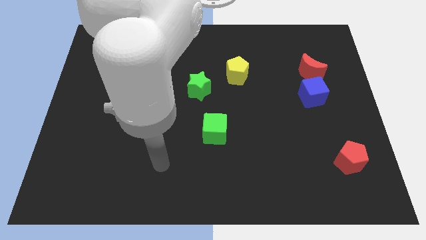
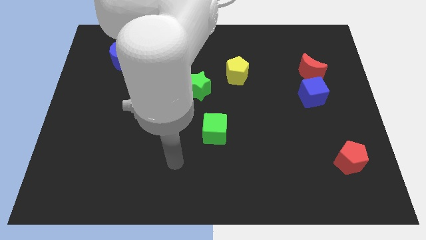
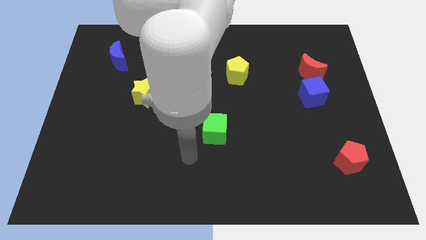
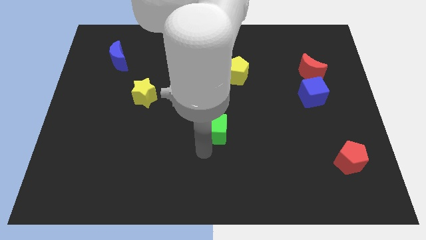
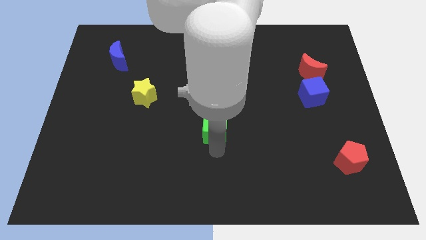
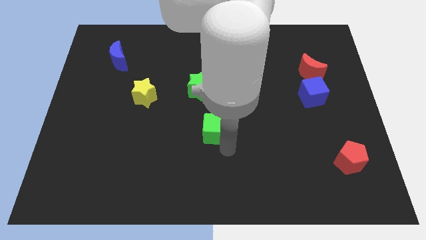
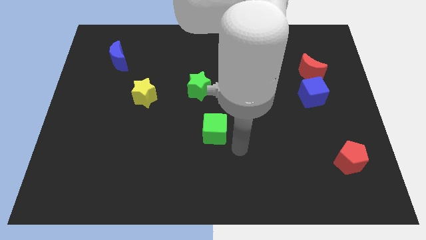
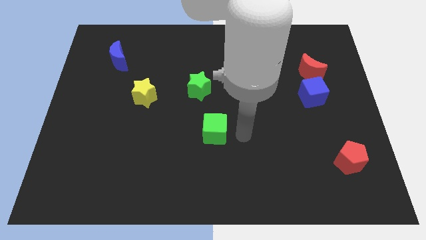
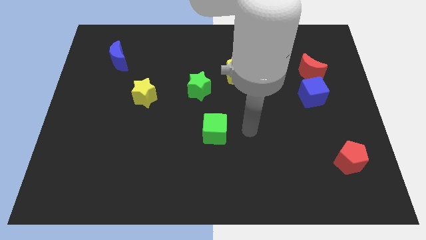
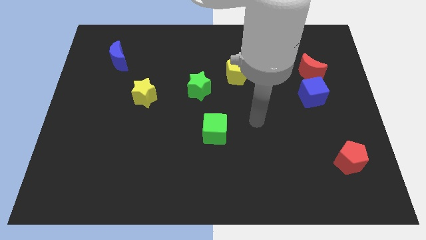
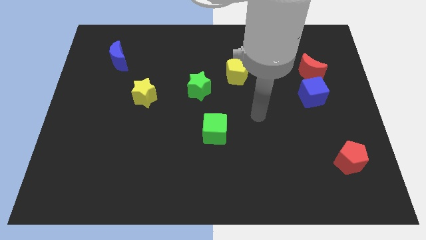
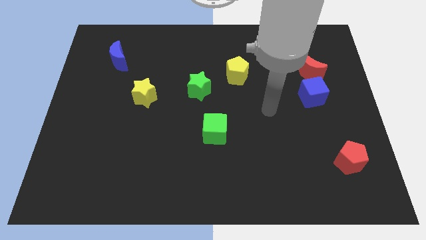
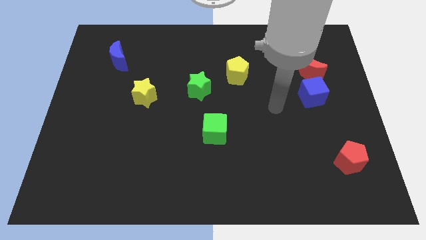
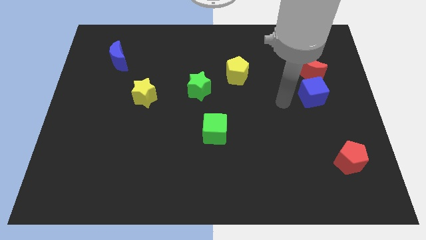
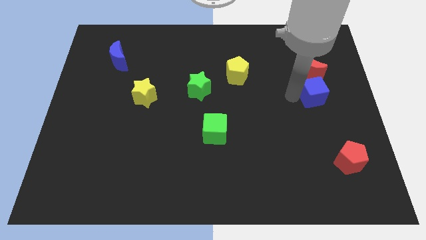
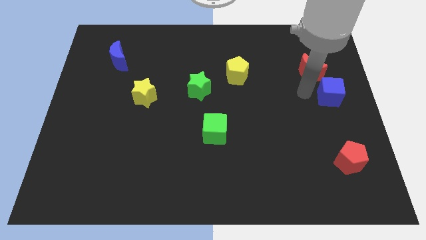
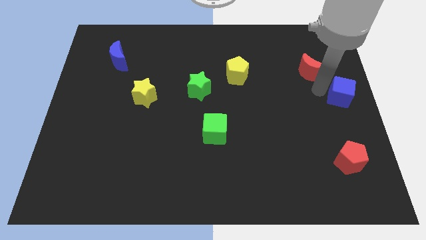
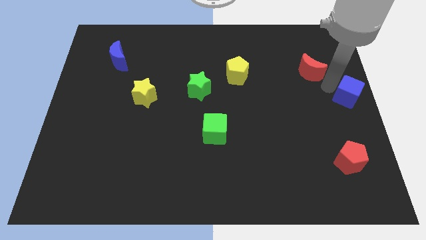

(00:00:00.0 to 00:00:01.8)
move the red moon away from the blue cube

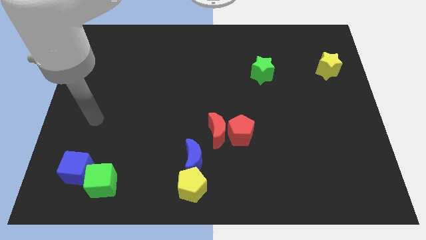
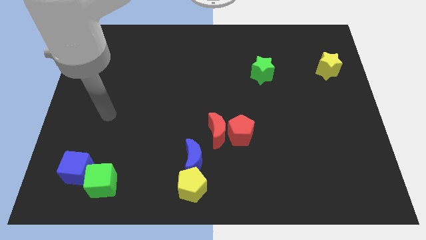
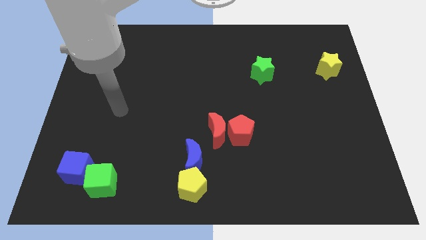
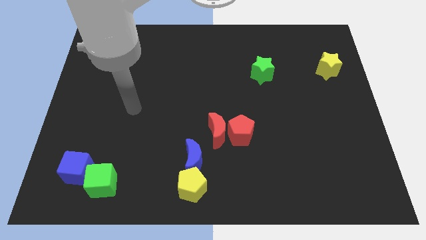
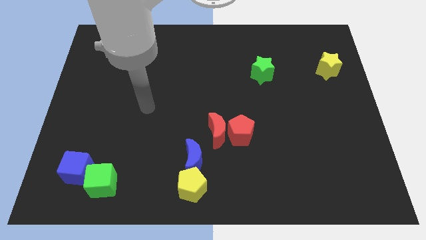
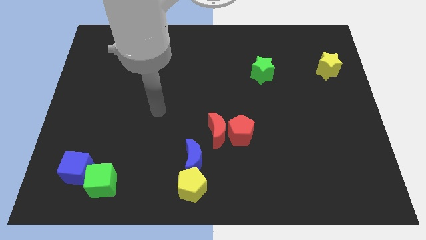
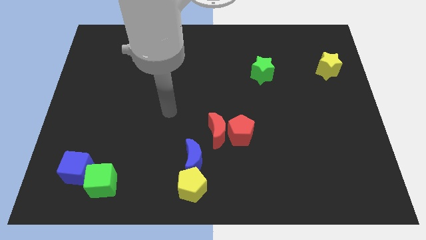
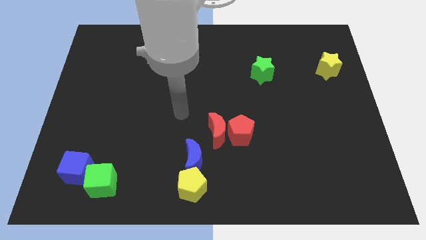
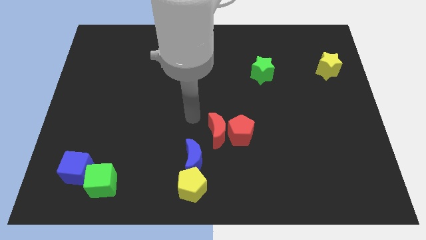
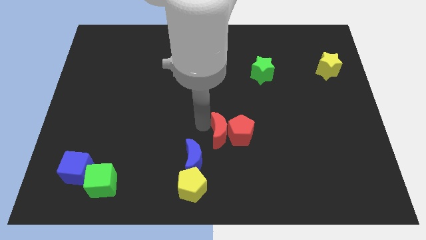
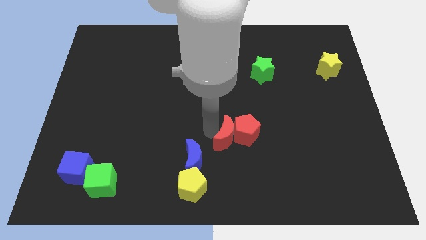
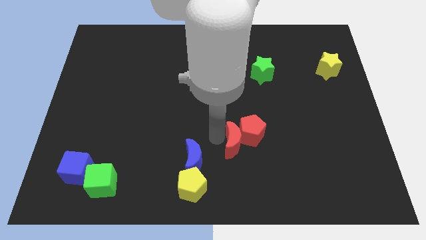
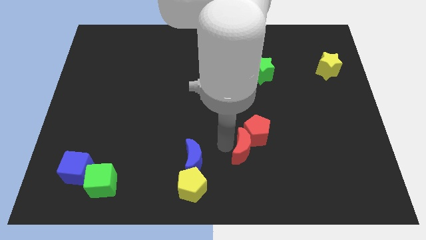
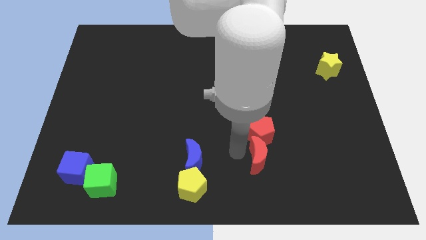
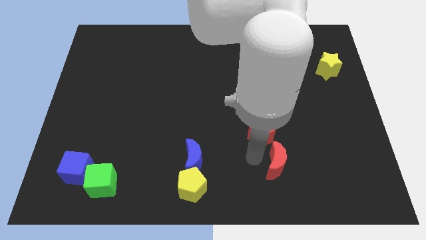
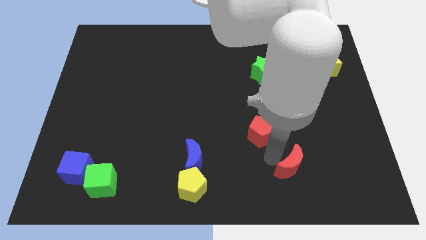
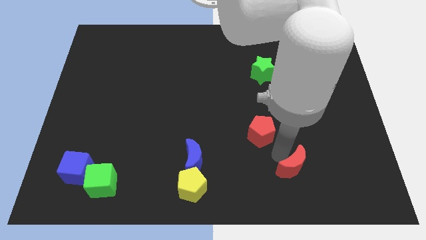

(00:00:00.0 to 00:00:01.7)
separate the red pentagon from the red moon

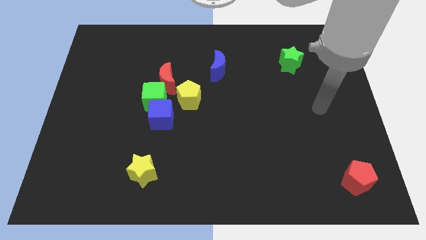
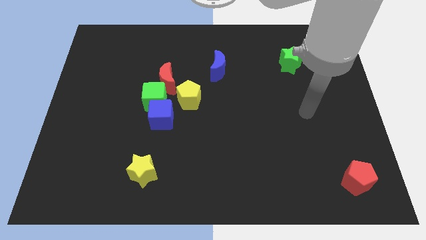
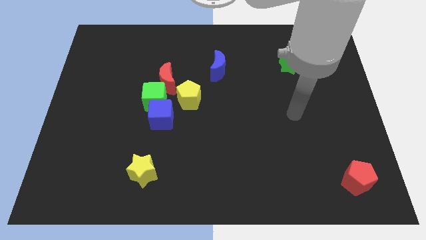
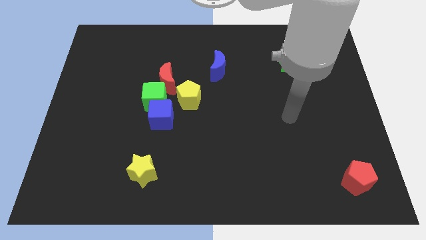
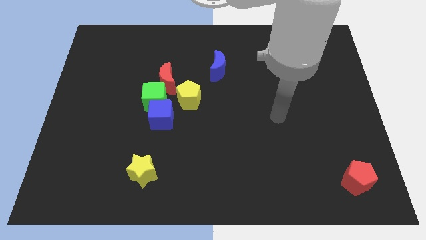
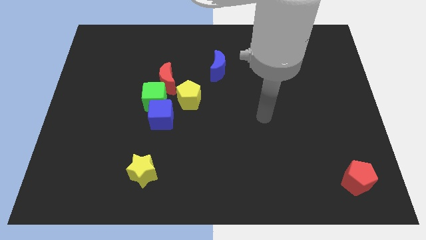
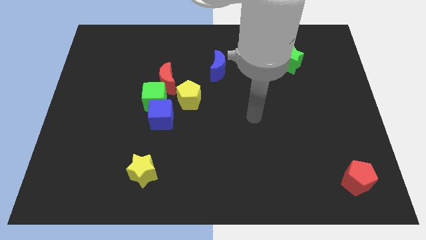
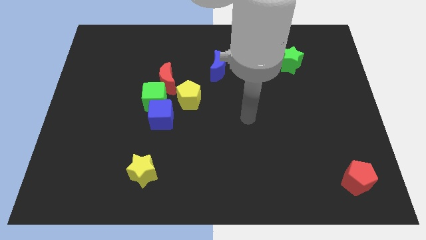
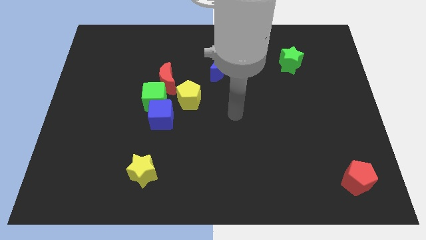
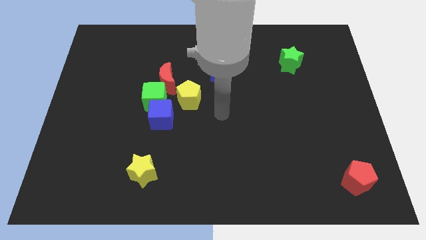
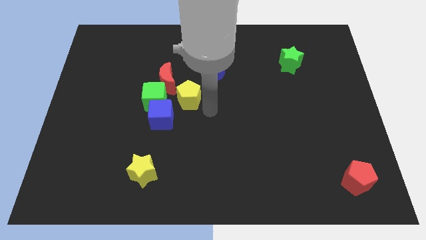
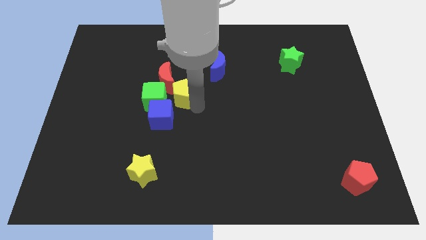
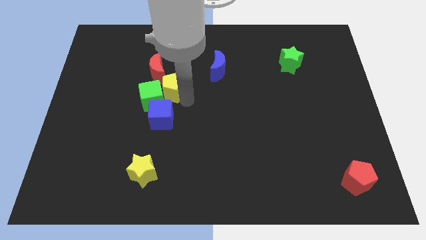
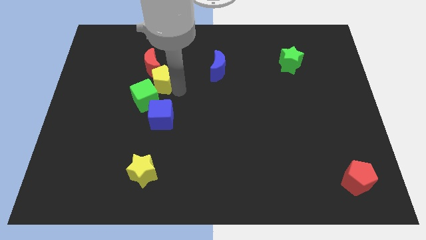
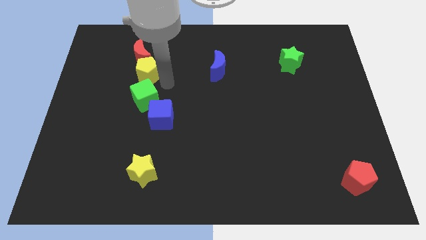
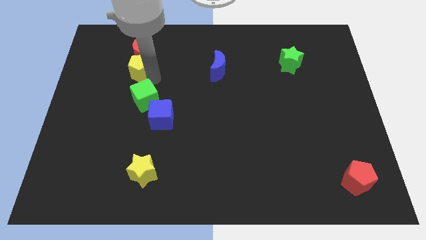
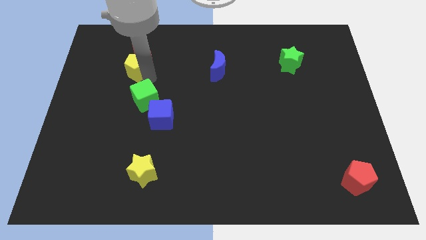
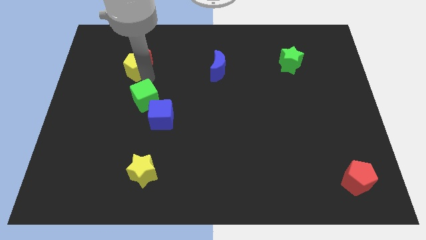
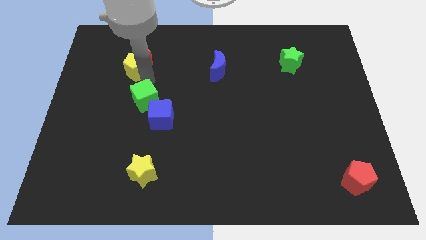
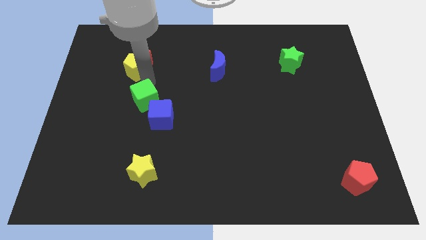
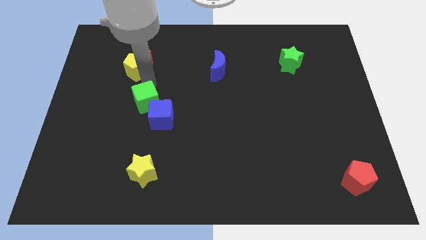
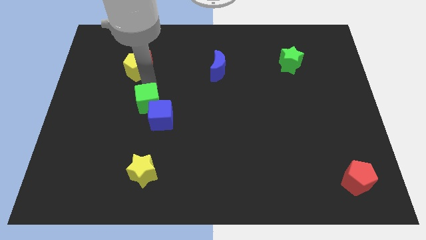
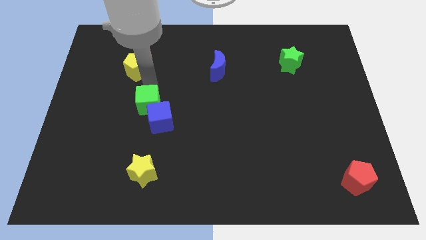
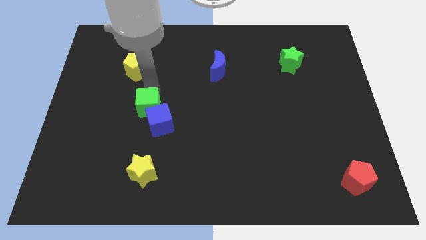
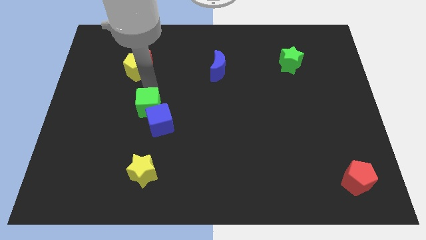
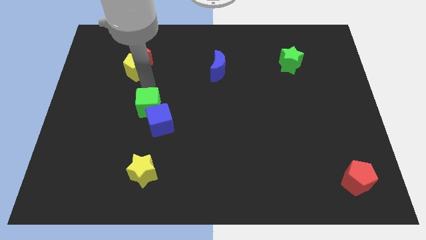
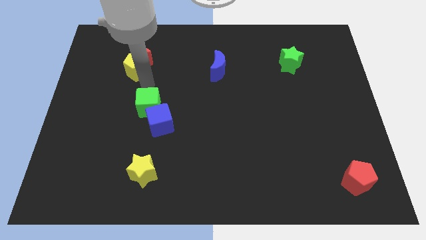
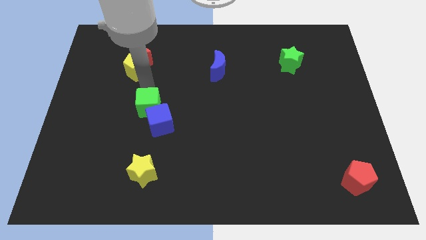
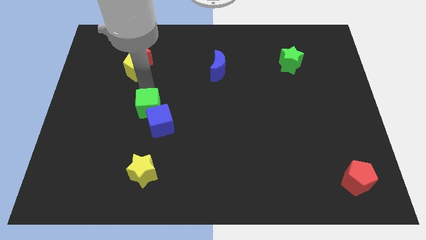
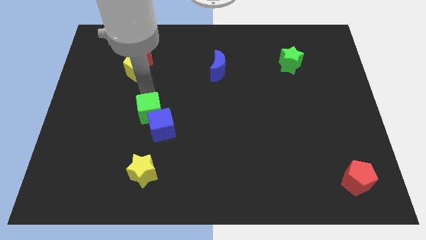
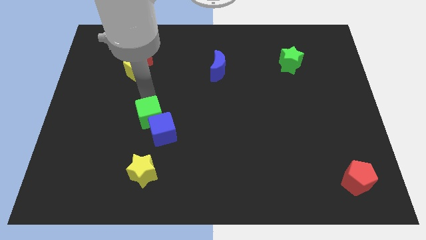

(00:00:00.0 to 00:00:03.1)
pull the green cube apart from the blue cube, red moon, and yellow pentagon

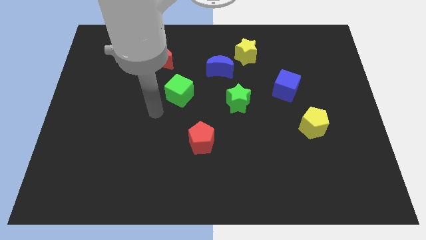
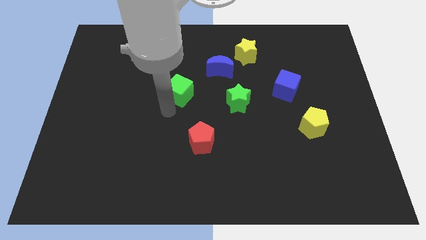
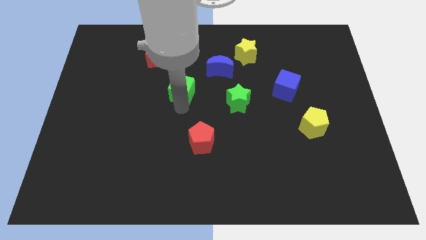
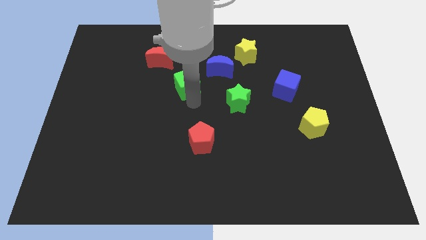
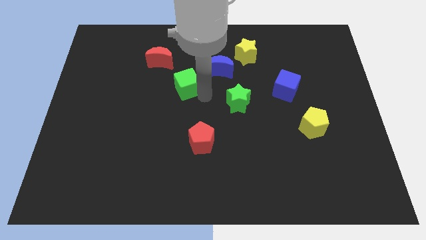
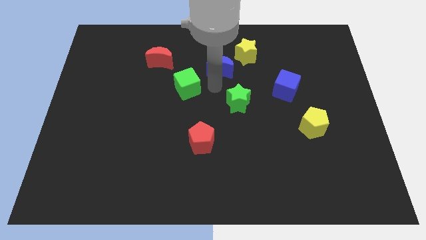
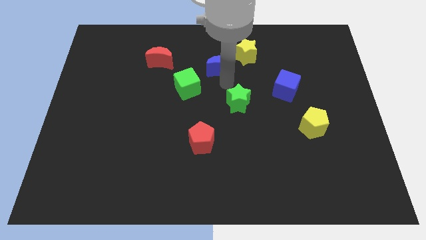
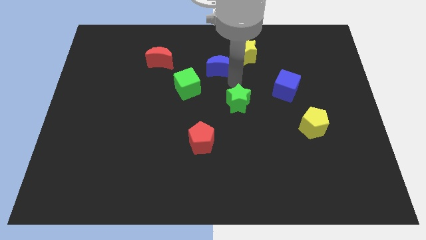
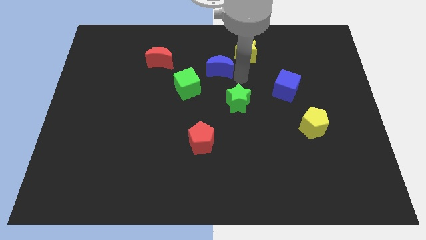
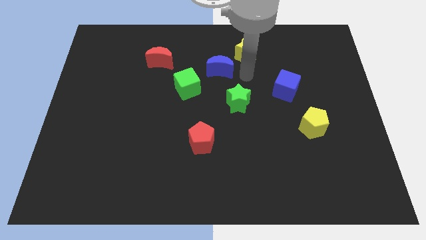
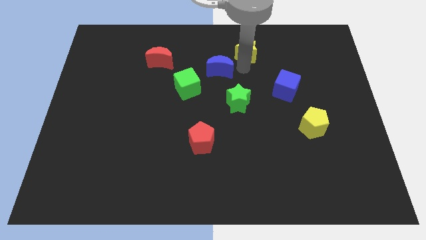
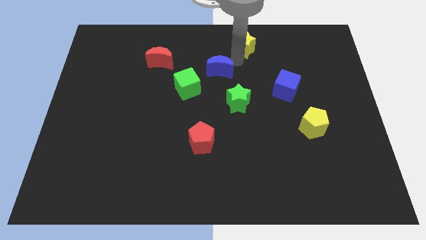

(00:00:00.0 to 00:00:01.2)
separate the blue moon from the yellow star

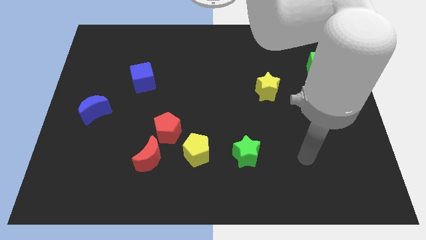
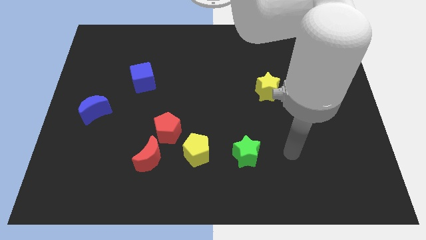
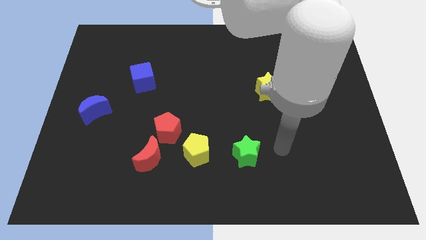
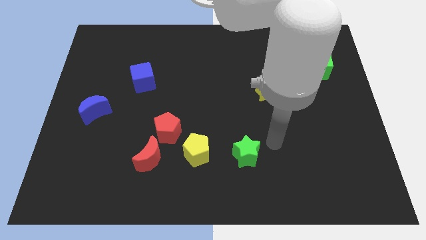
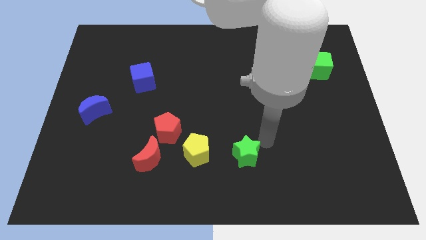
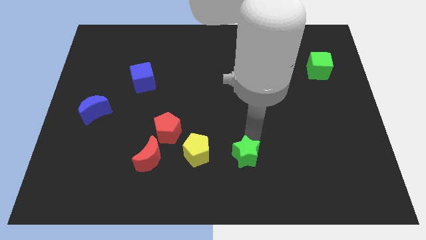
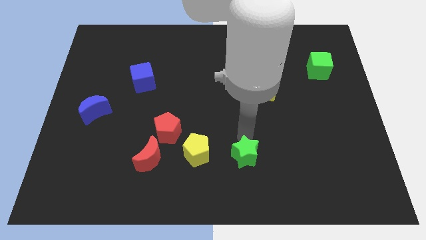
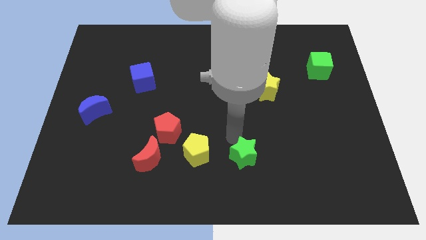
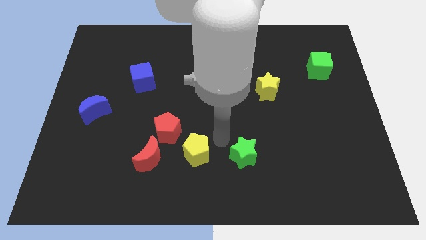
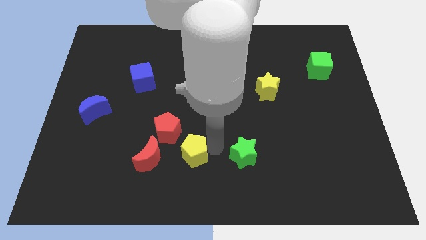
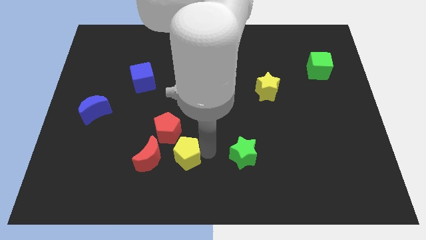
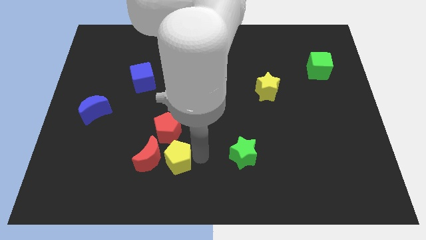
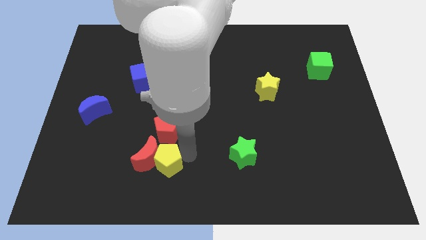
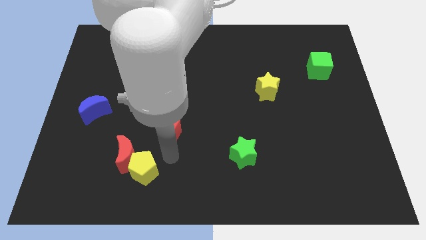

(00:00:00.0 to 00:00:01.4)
move the red pentagon away from the red moon and yellow pentagon

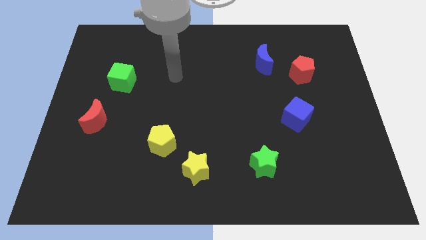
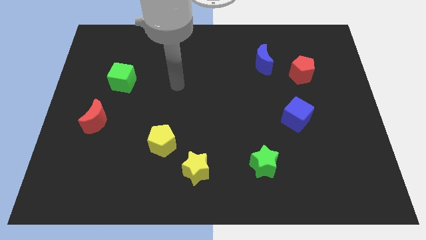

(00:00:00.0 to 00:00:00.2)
move the yellow star away from the yellow pentagon
